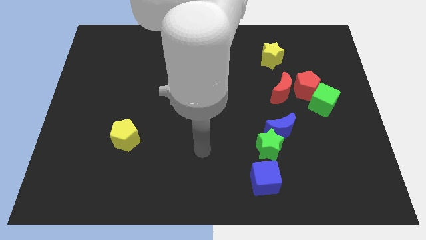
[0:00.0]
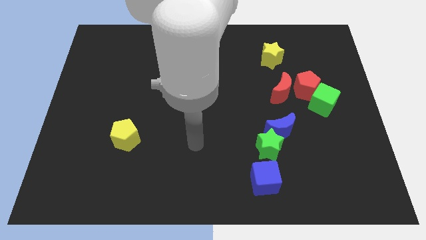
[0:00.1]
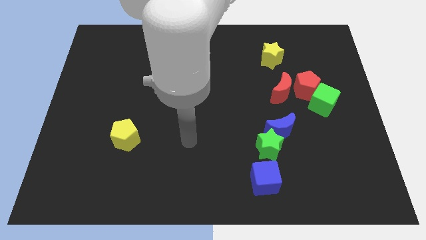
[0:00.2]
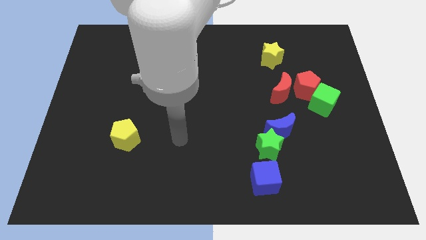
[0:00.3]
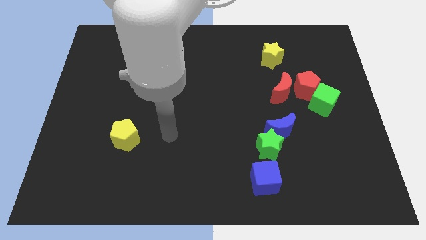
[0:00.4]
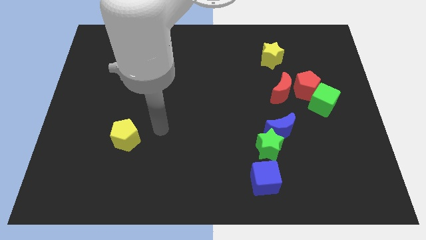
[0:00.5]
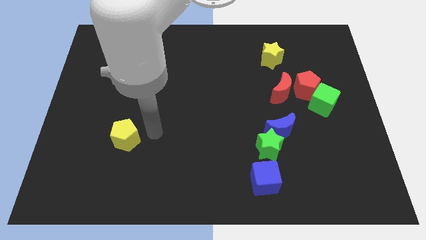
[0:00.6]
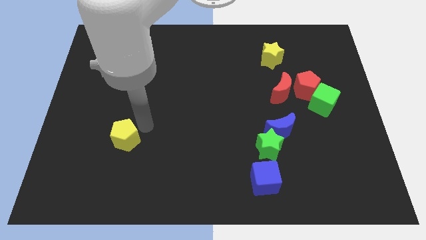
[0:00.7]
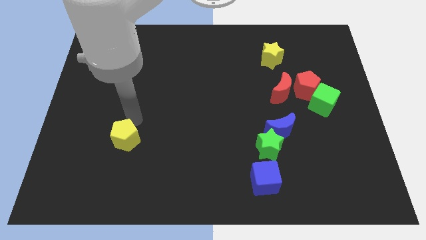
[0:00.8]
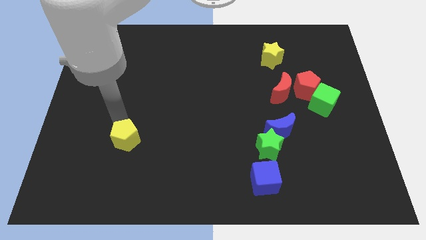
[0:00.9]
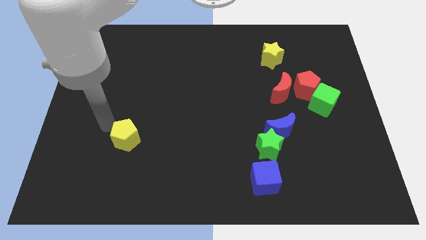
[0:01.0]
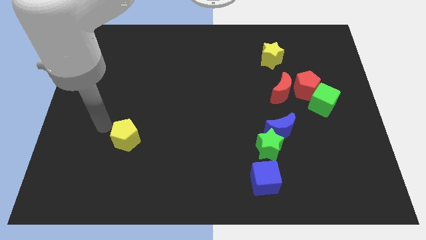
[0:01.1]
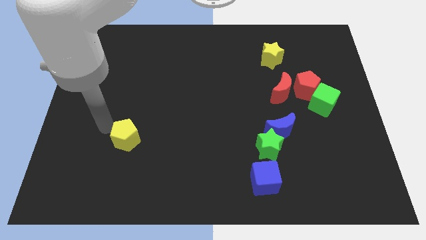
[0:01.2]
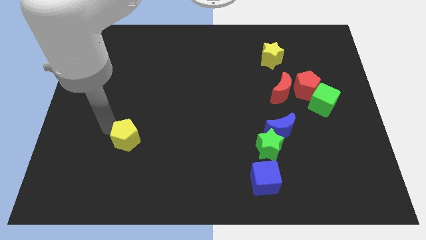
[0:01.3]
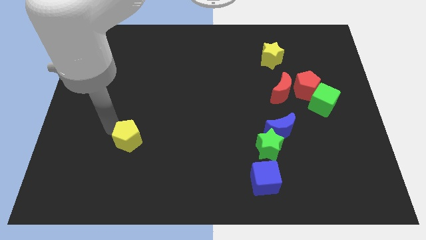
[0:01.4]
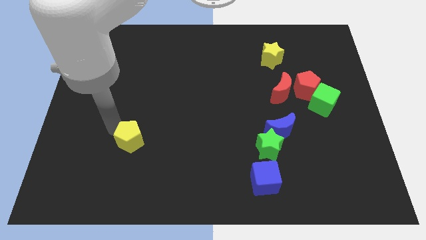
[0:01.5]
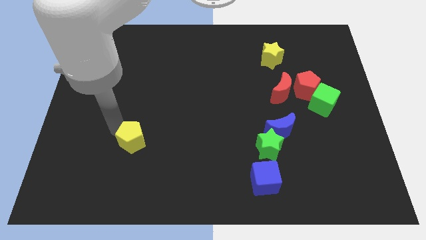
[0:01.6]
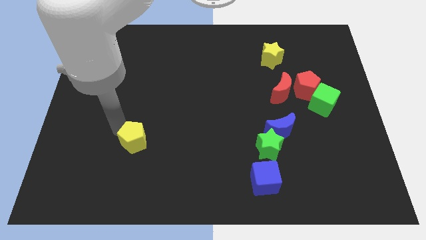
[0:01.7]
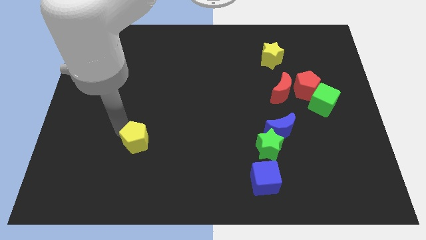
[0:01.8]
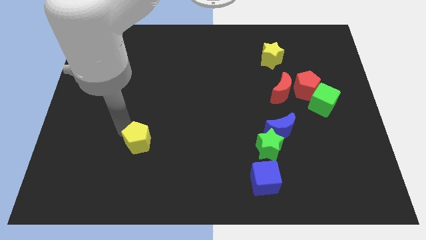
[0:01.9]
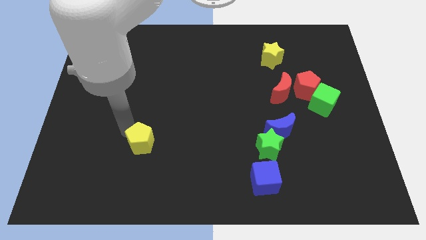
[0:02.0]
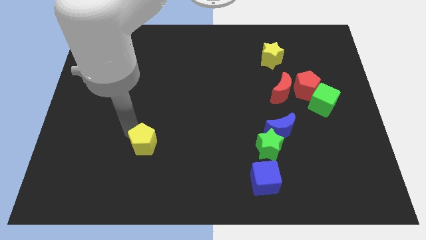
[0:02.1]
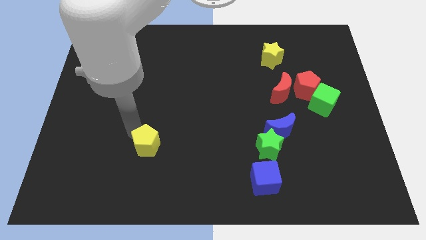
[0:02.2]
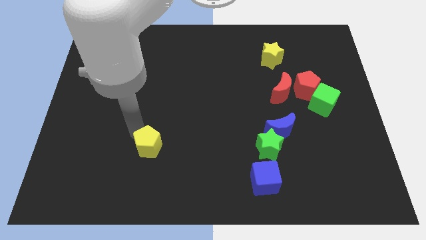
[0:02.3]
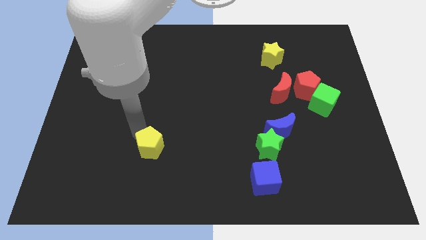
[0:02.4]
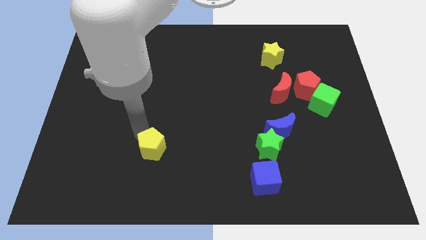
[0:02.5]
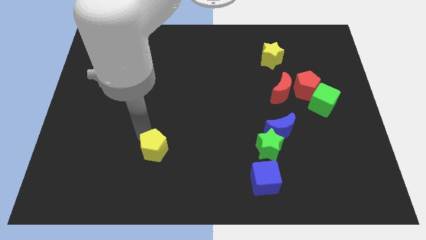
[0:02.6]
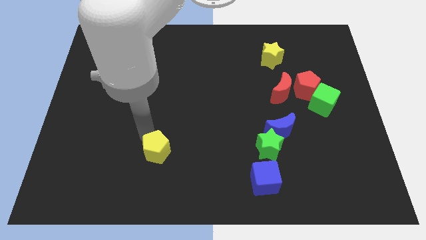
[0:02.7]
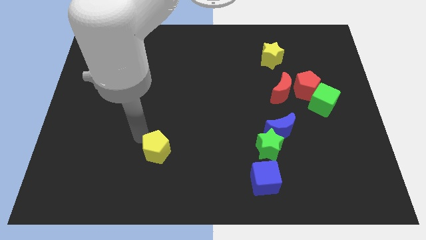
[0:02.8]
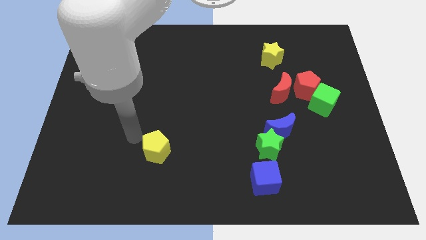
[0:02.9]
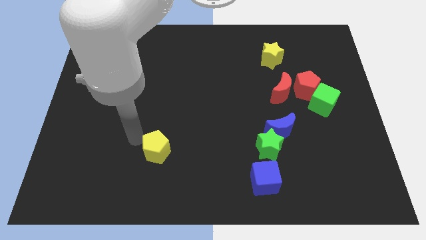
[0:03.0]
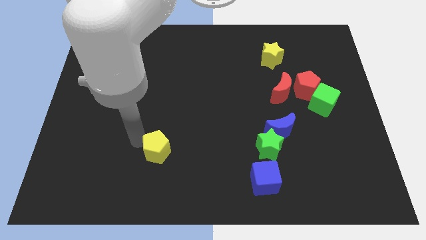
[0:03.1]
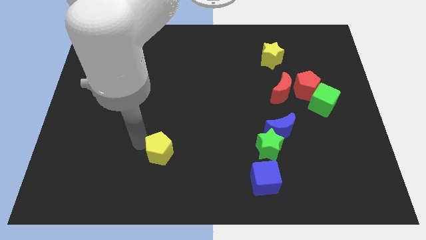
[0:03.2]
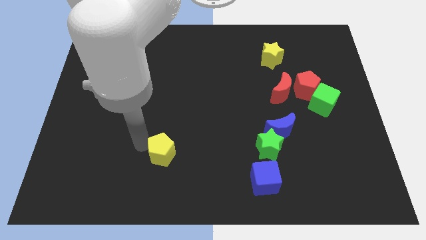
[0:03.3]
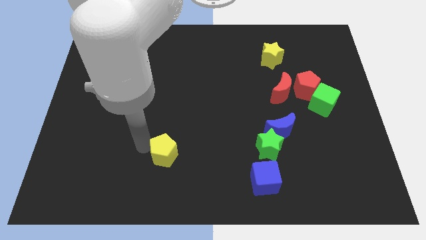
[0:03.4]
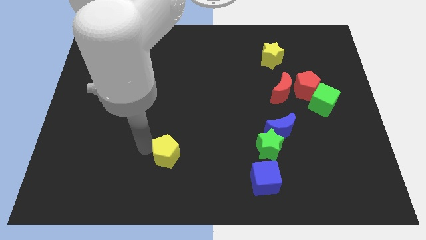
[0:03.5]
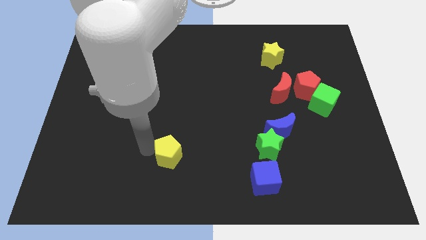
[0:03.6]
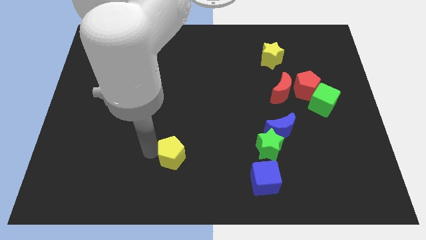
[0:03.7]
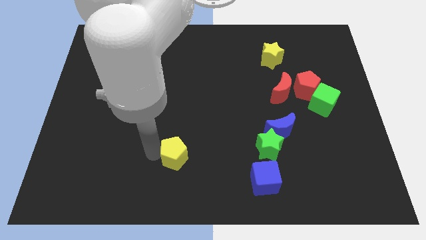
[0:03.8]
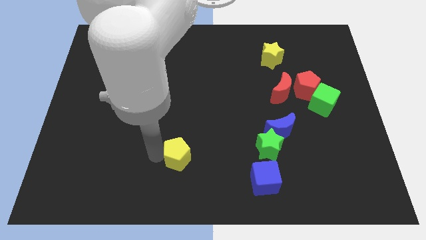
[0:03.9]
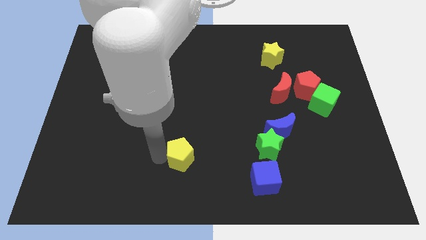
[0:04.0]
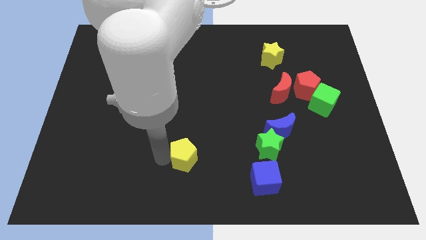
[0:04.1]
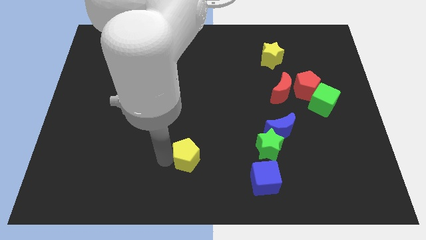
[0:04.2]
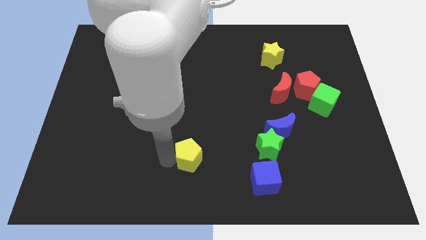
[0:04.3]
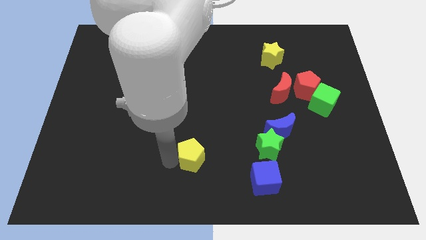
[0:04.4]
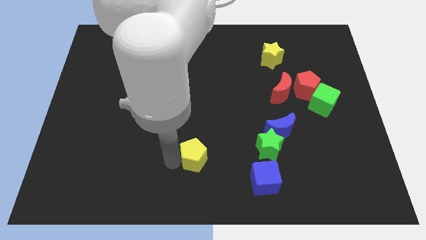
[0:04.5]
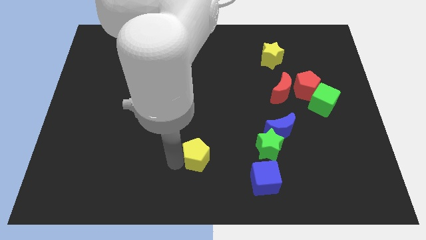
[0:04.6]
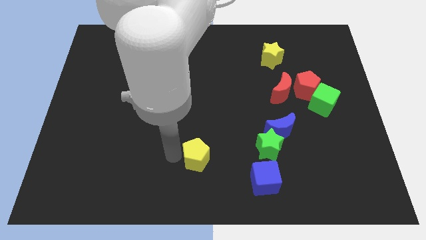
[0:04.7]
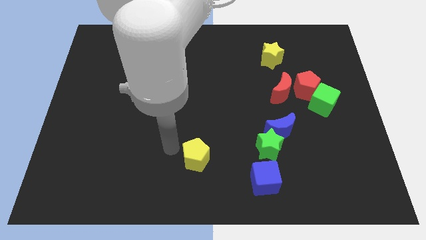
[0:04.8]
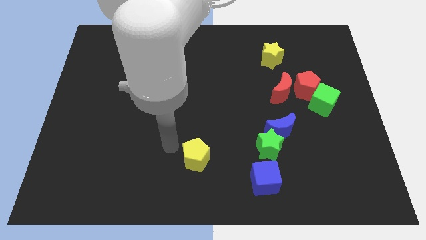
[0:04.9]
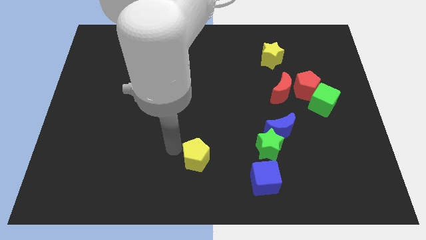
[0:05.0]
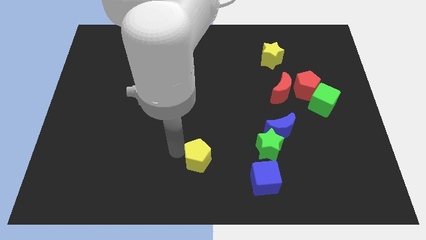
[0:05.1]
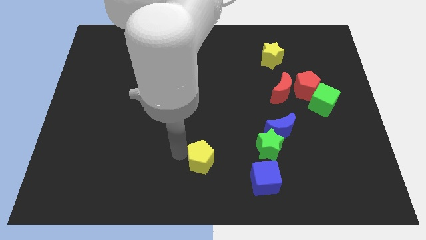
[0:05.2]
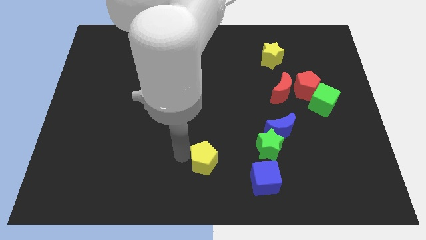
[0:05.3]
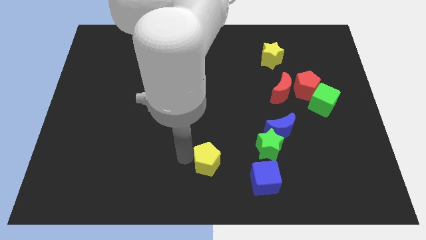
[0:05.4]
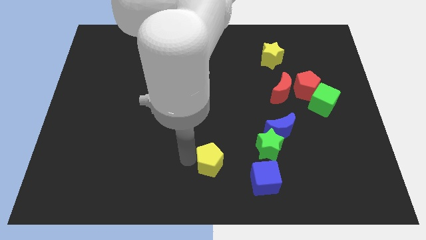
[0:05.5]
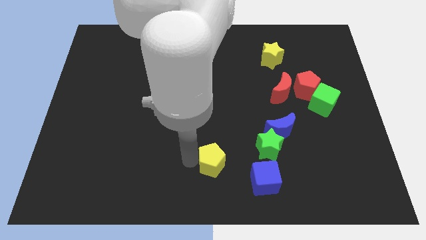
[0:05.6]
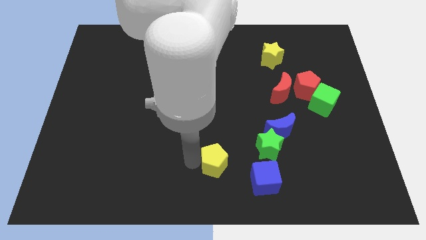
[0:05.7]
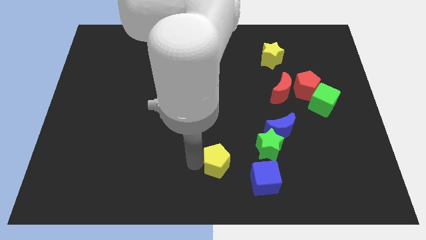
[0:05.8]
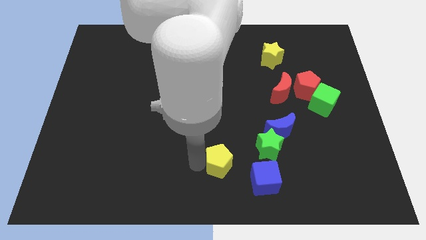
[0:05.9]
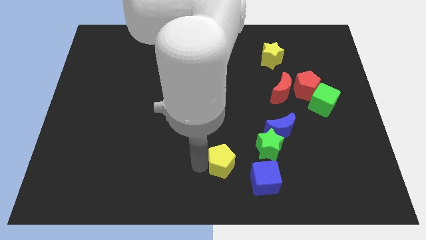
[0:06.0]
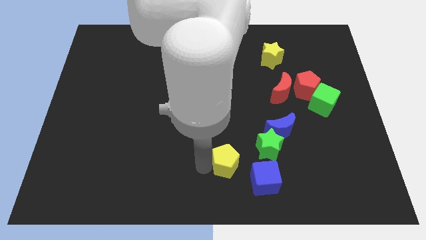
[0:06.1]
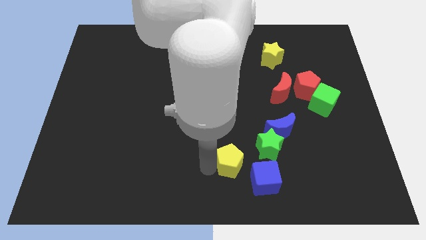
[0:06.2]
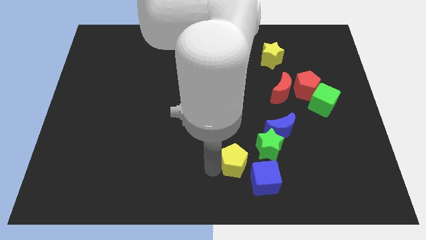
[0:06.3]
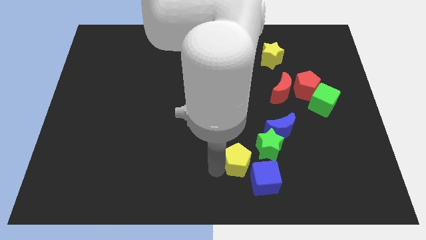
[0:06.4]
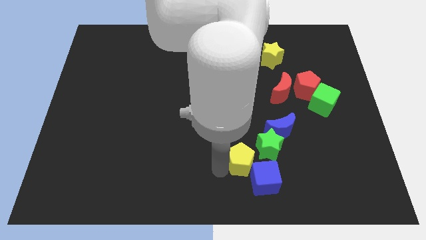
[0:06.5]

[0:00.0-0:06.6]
move the yellow pentagon towards the blue cube

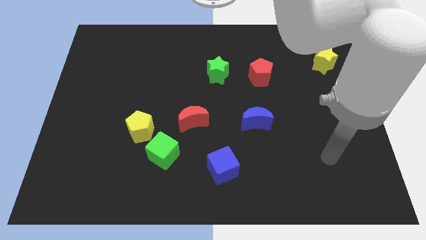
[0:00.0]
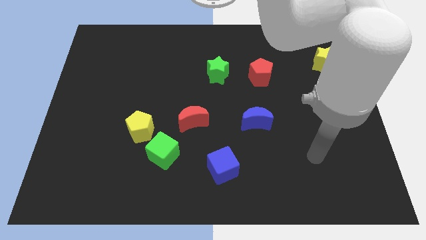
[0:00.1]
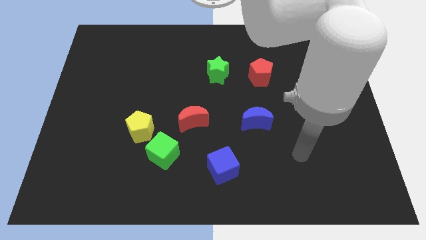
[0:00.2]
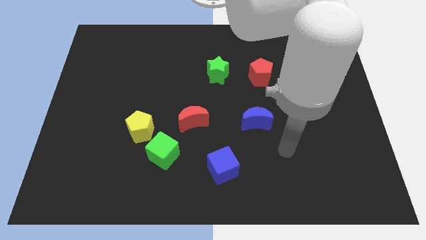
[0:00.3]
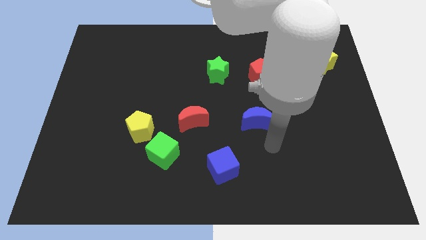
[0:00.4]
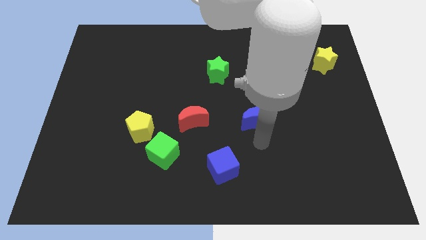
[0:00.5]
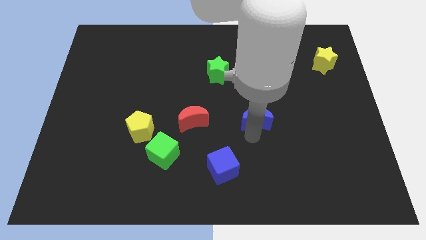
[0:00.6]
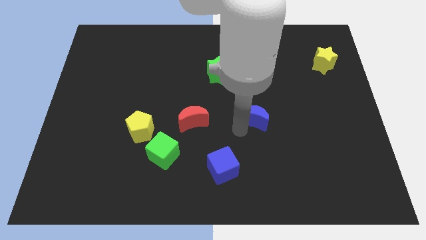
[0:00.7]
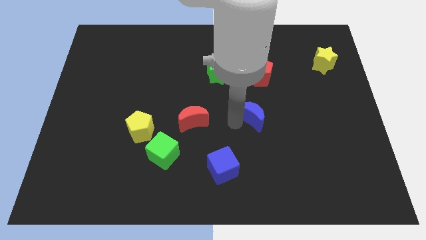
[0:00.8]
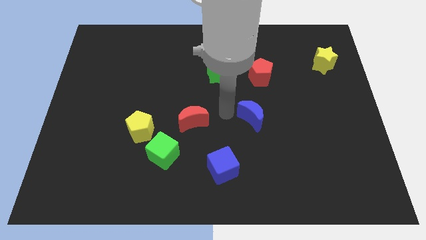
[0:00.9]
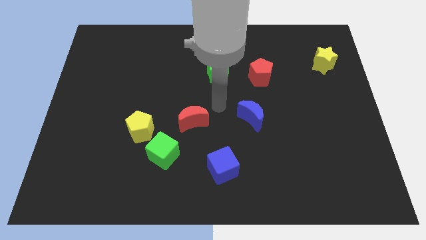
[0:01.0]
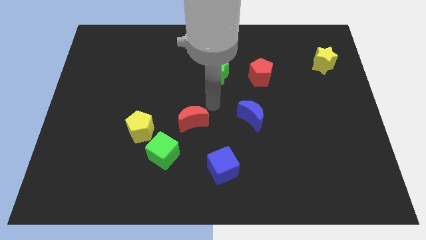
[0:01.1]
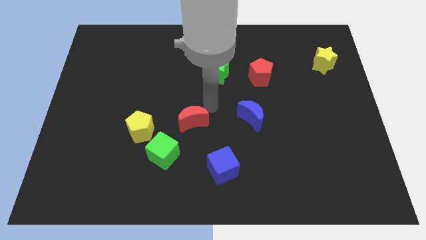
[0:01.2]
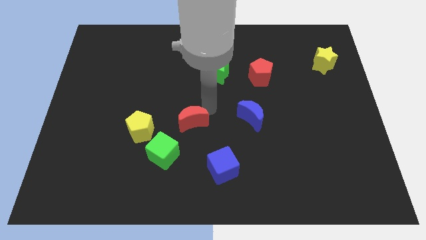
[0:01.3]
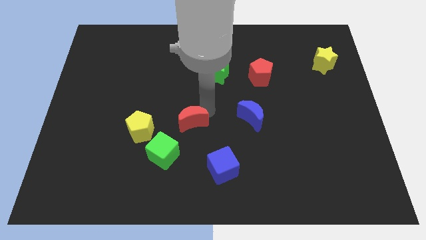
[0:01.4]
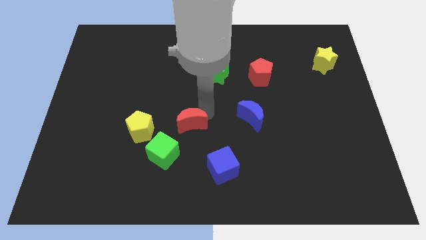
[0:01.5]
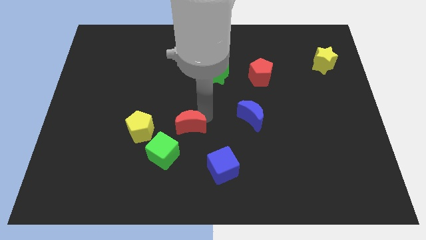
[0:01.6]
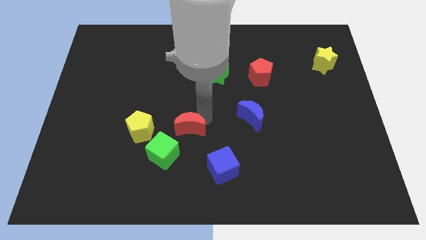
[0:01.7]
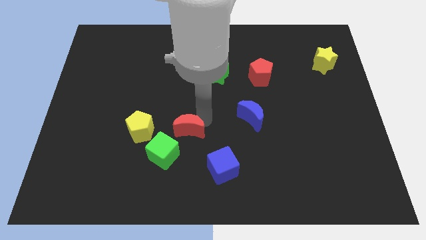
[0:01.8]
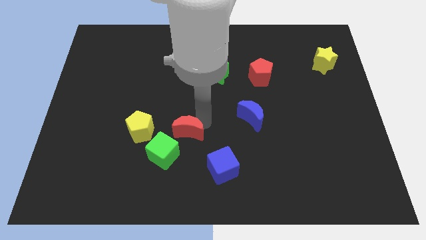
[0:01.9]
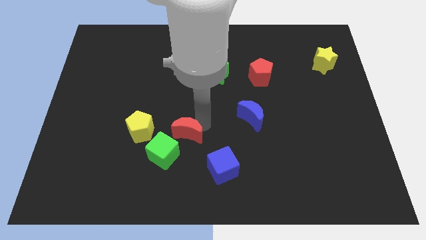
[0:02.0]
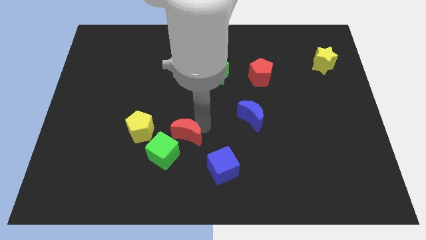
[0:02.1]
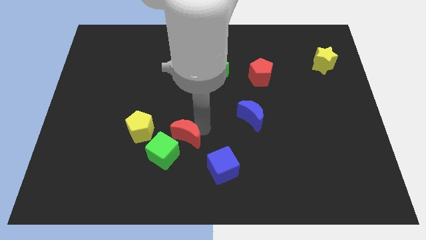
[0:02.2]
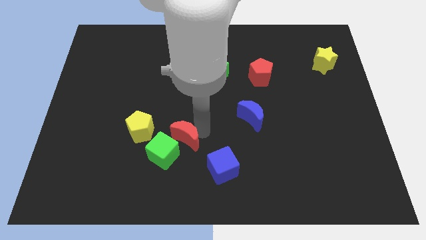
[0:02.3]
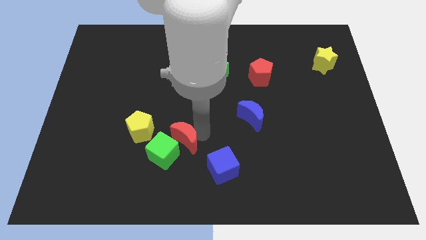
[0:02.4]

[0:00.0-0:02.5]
push the red moon to the green cube
